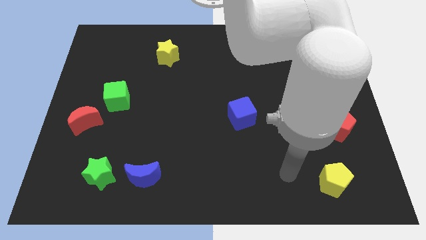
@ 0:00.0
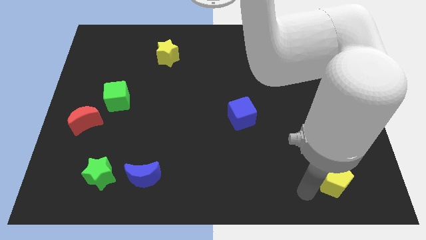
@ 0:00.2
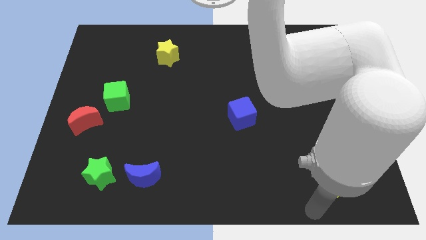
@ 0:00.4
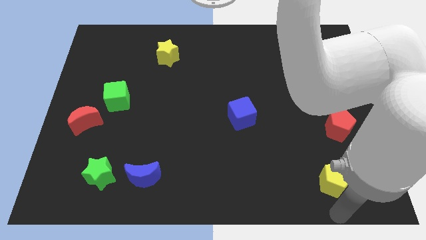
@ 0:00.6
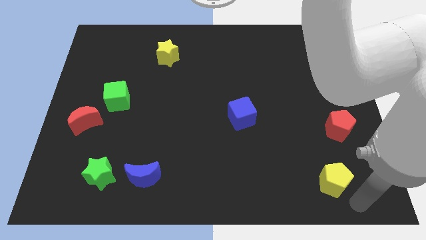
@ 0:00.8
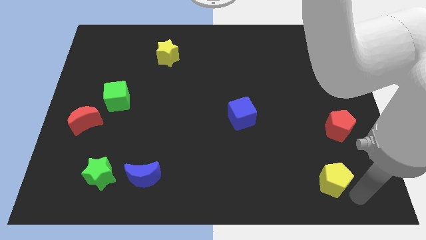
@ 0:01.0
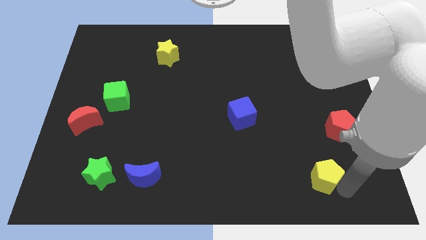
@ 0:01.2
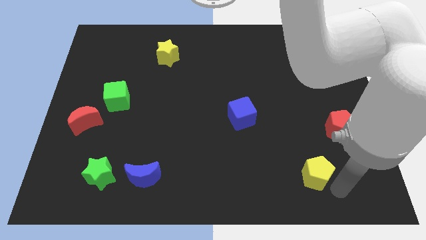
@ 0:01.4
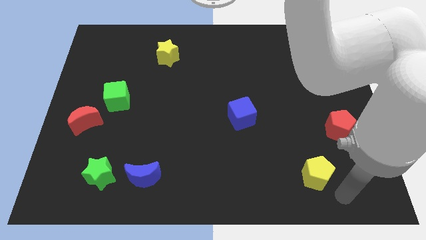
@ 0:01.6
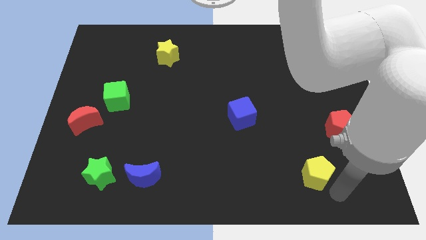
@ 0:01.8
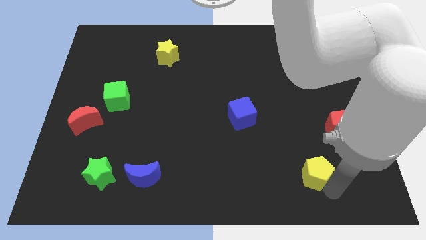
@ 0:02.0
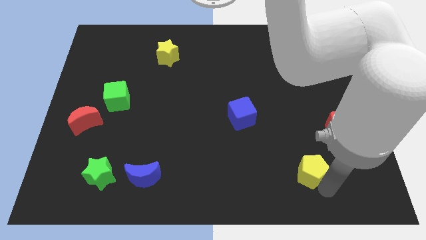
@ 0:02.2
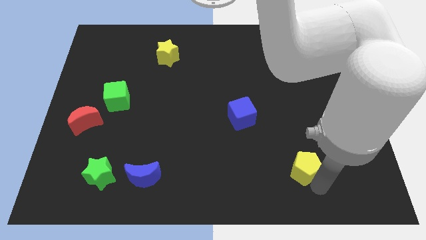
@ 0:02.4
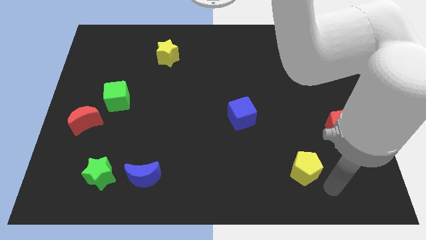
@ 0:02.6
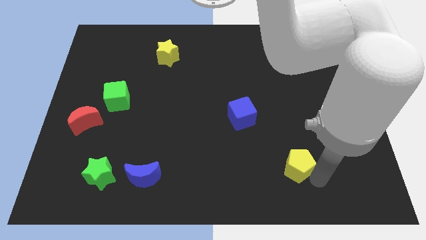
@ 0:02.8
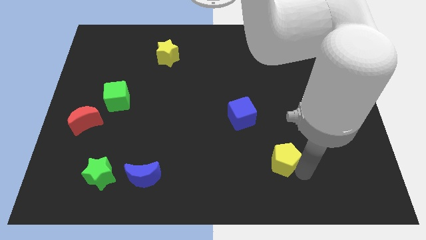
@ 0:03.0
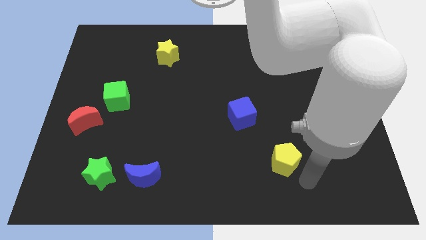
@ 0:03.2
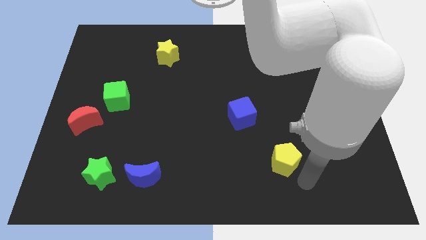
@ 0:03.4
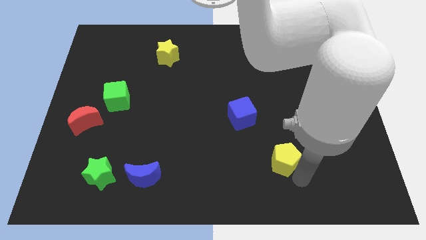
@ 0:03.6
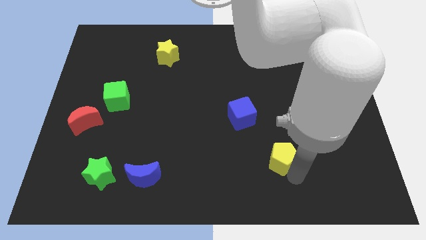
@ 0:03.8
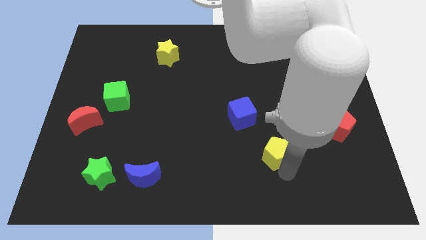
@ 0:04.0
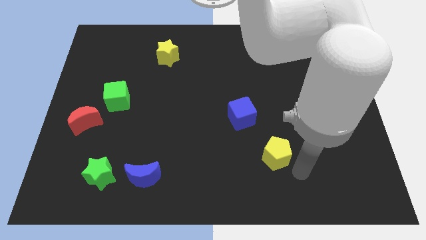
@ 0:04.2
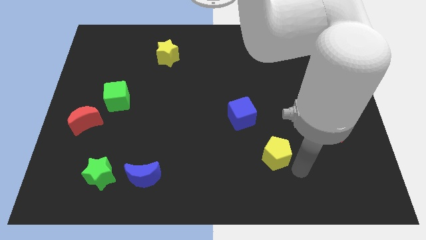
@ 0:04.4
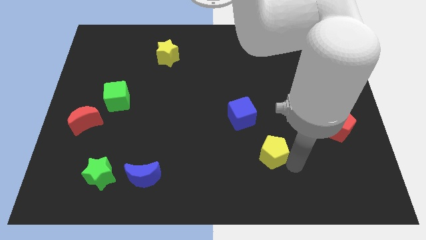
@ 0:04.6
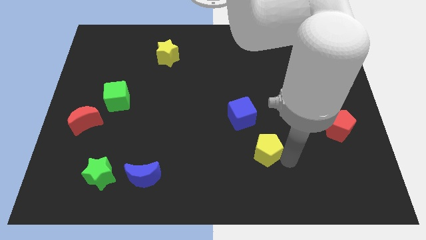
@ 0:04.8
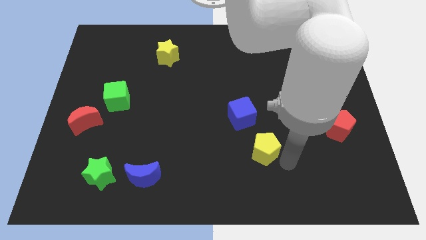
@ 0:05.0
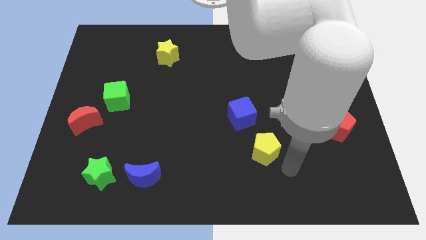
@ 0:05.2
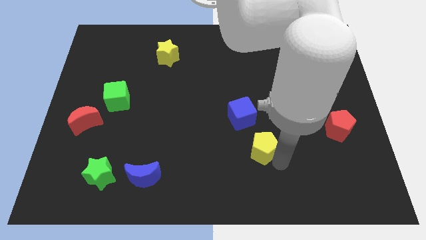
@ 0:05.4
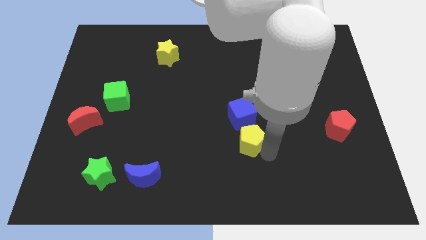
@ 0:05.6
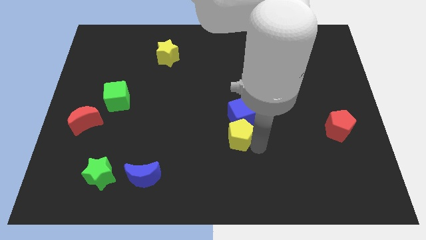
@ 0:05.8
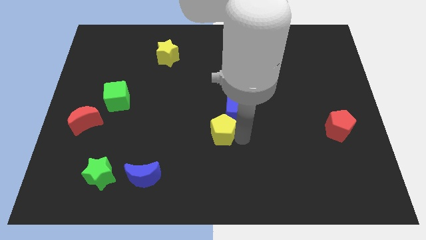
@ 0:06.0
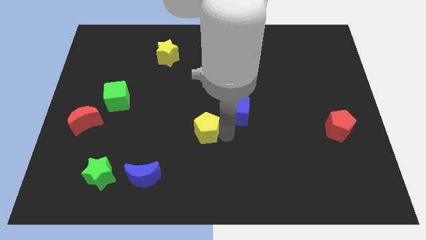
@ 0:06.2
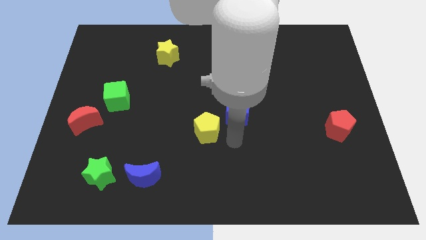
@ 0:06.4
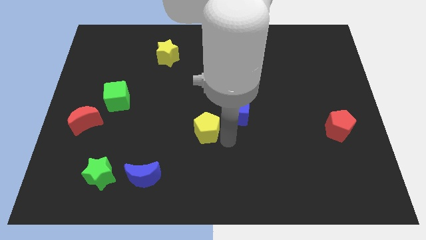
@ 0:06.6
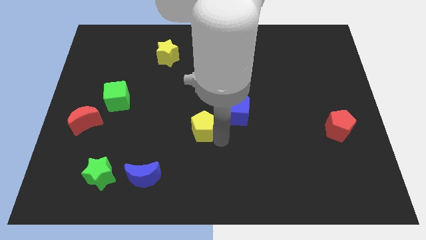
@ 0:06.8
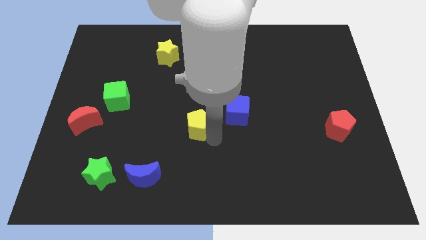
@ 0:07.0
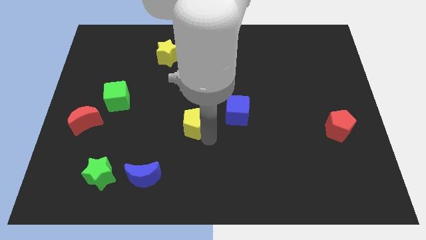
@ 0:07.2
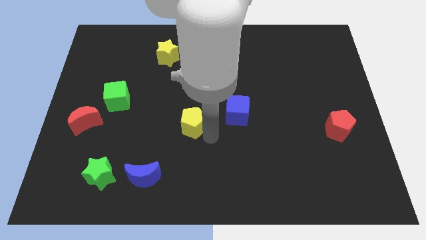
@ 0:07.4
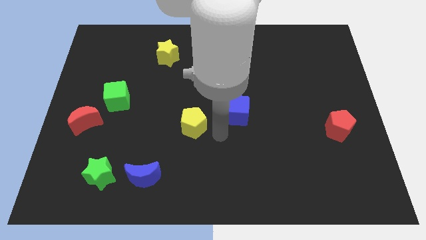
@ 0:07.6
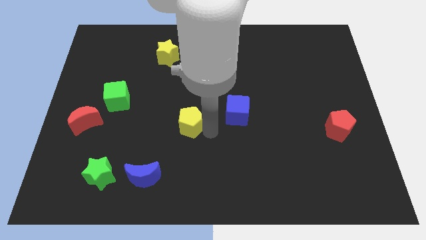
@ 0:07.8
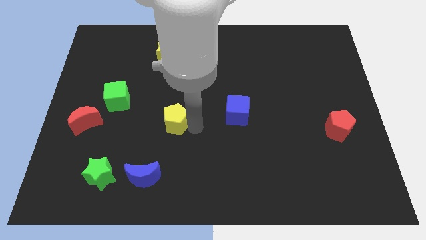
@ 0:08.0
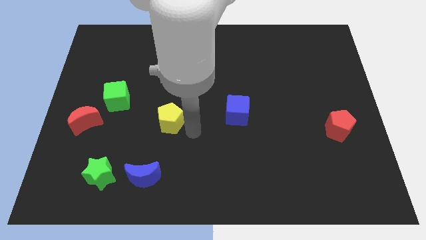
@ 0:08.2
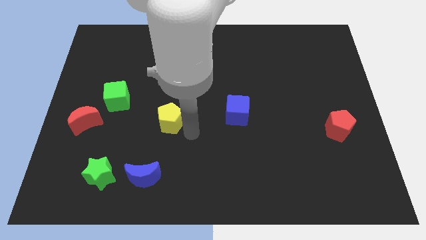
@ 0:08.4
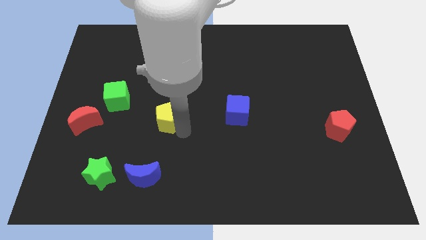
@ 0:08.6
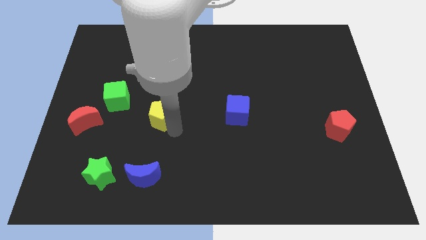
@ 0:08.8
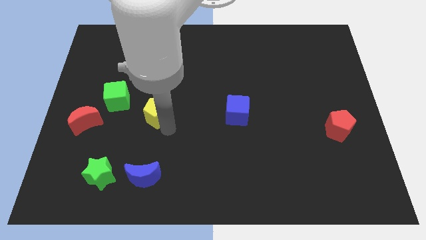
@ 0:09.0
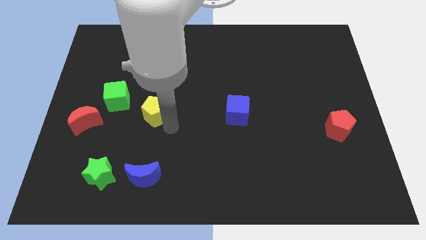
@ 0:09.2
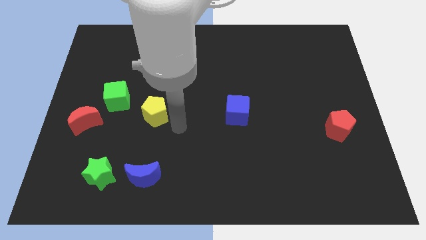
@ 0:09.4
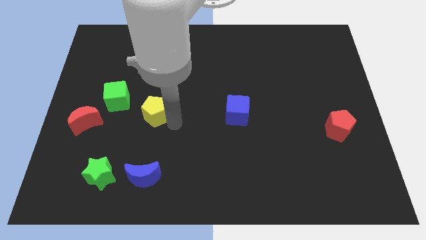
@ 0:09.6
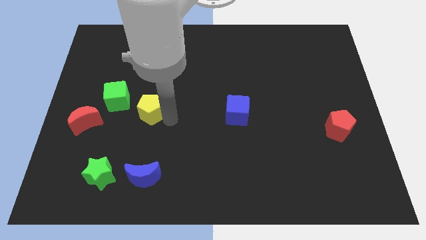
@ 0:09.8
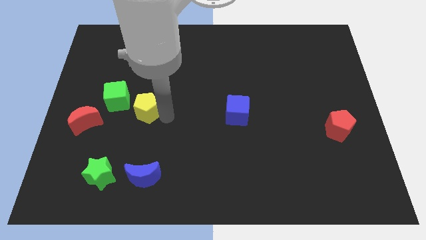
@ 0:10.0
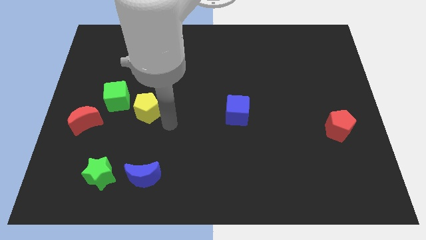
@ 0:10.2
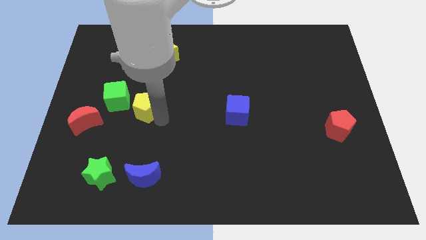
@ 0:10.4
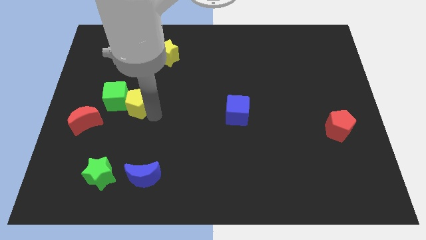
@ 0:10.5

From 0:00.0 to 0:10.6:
push the yellow pentagon towards the green cube

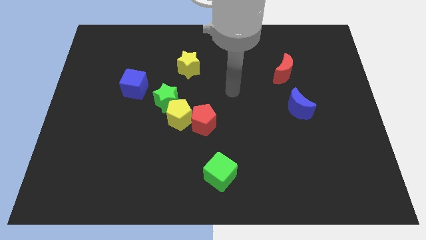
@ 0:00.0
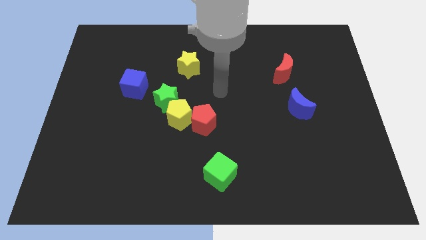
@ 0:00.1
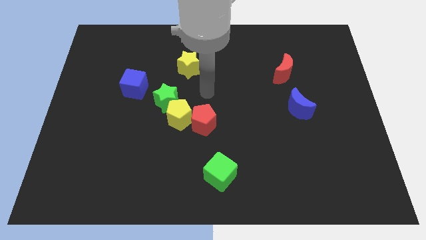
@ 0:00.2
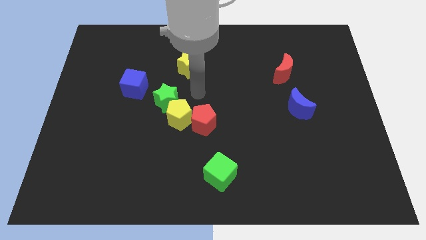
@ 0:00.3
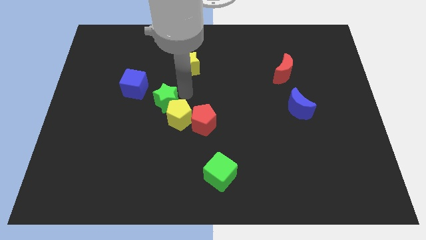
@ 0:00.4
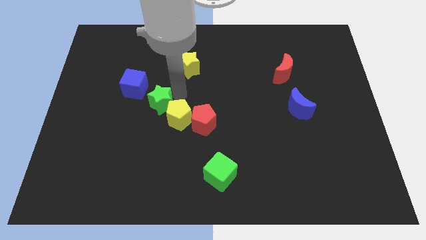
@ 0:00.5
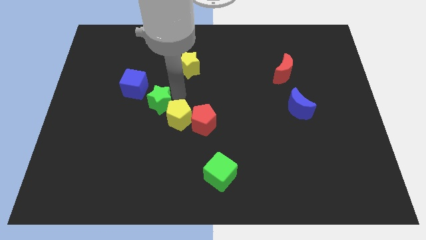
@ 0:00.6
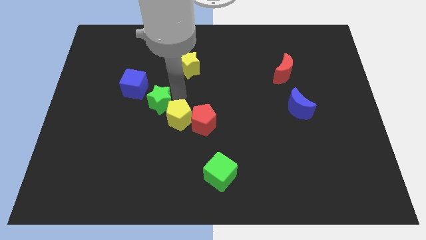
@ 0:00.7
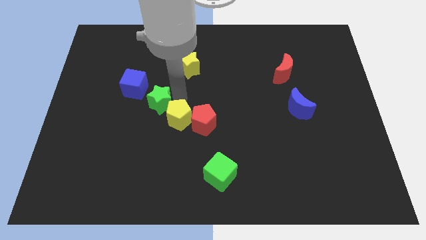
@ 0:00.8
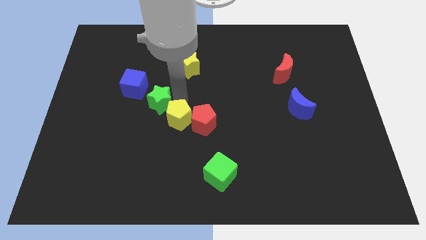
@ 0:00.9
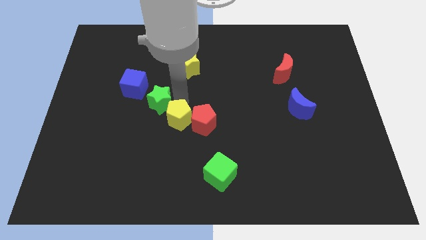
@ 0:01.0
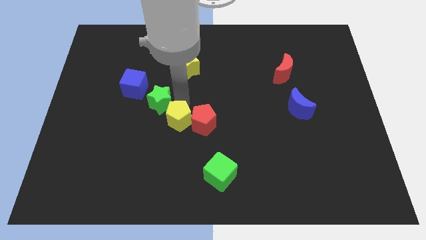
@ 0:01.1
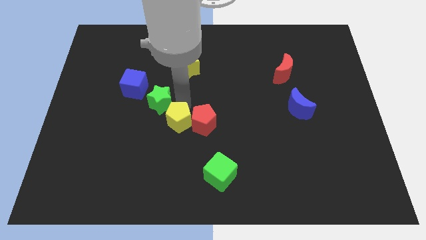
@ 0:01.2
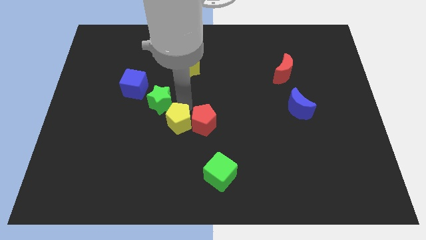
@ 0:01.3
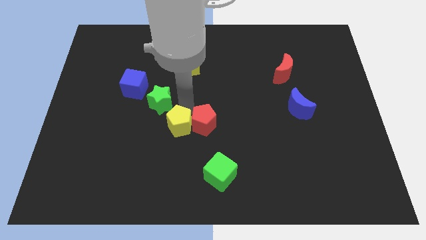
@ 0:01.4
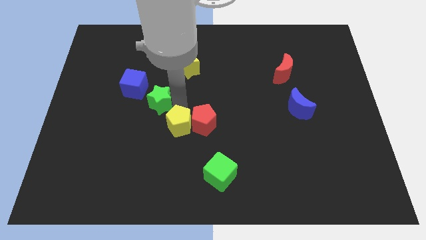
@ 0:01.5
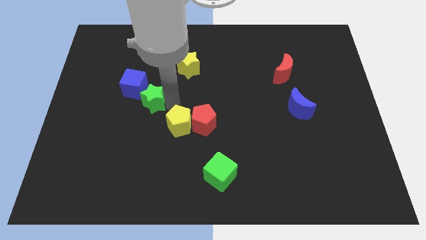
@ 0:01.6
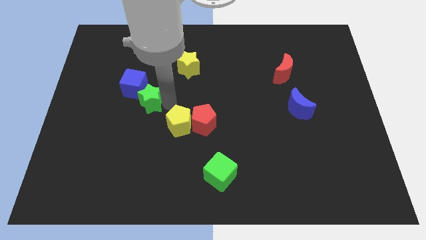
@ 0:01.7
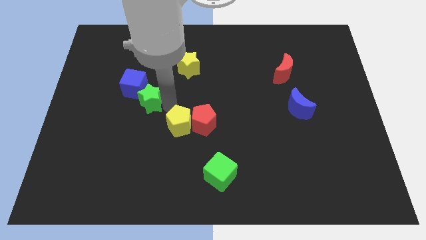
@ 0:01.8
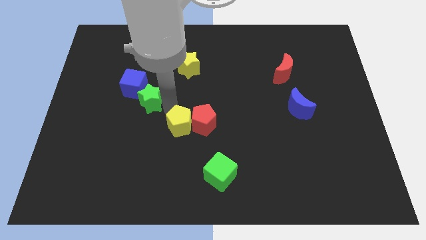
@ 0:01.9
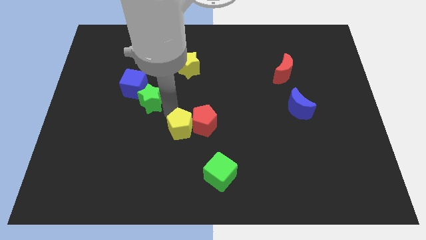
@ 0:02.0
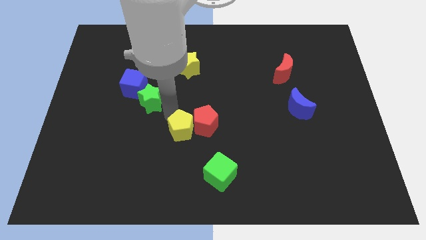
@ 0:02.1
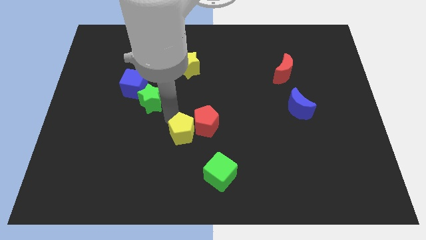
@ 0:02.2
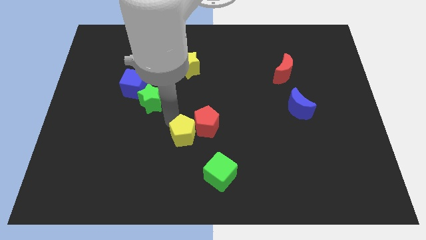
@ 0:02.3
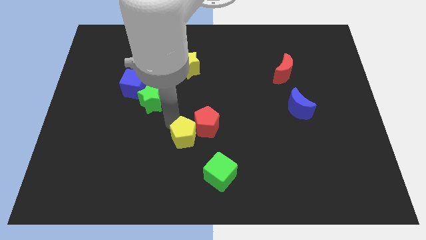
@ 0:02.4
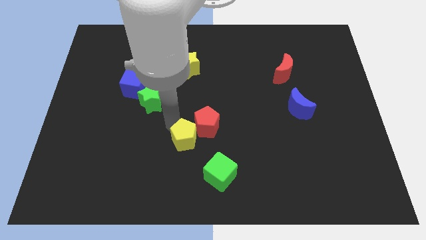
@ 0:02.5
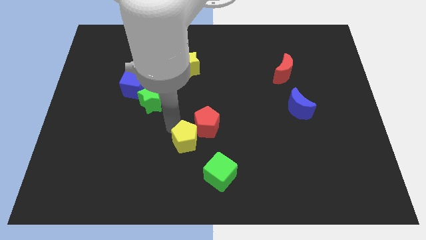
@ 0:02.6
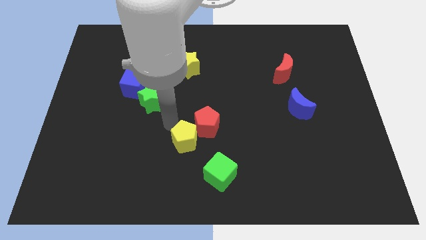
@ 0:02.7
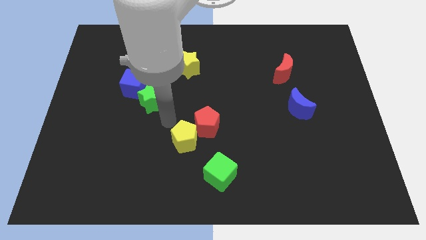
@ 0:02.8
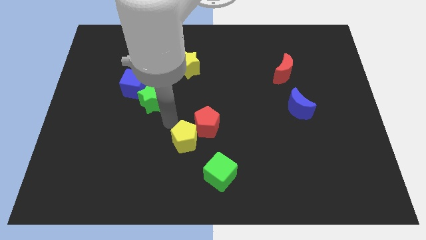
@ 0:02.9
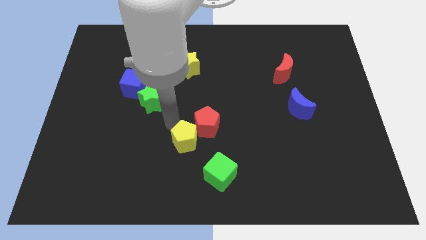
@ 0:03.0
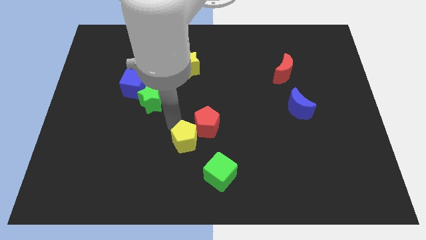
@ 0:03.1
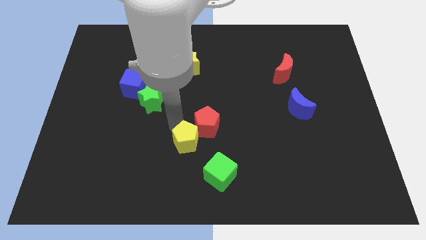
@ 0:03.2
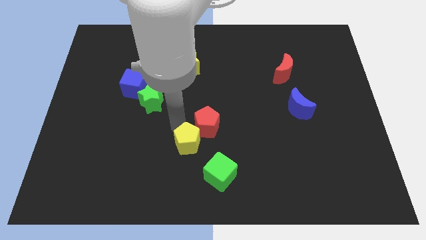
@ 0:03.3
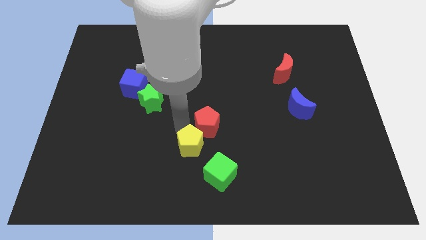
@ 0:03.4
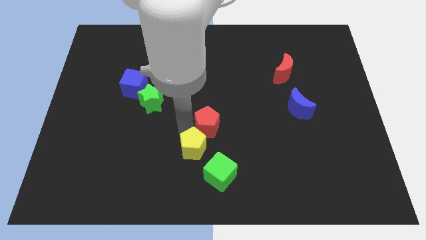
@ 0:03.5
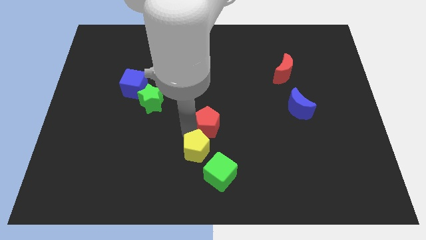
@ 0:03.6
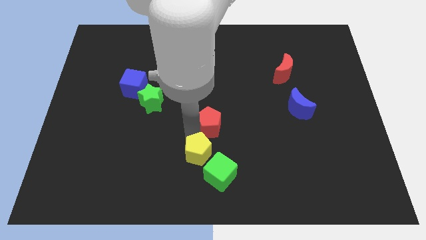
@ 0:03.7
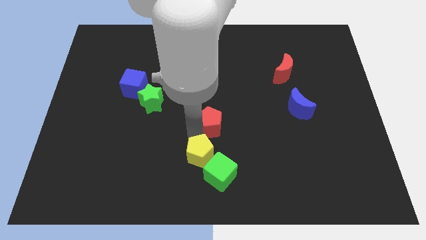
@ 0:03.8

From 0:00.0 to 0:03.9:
put the yellow pentagon next to the green cube
